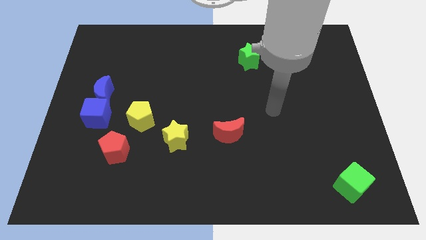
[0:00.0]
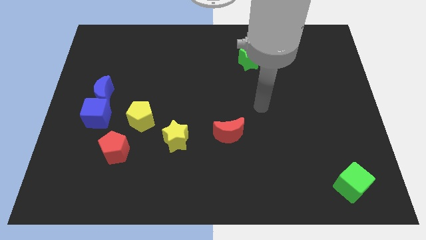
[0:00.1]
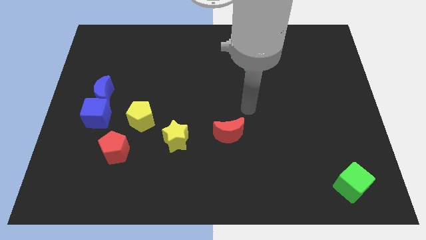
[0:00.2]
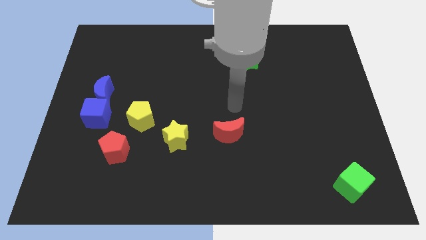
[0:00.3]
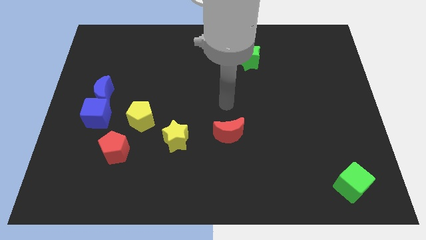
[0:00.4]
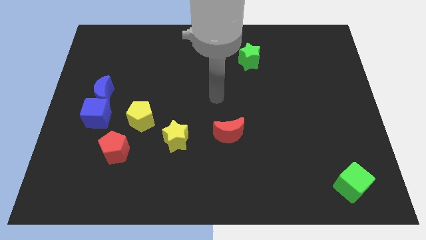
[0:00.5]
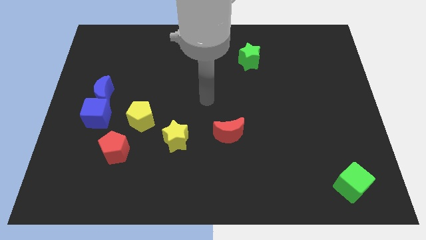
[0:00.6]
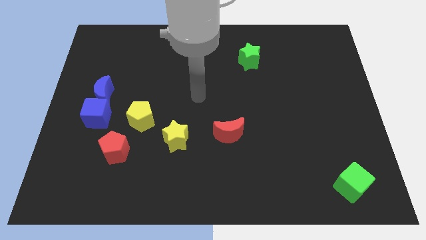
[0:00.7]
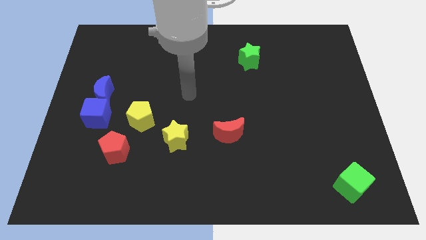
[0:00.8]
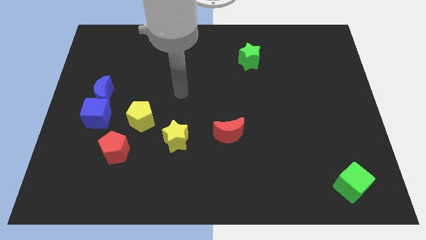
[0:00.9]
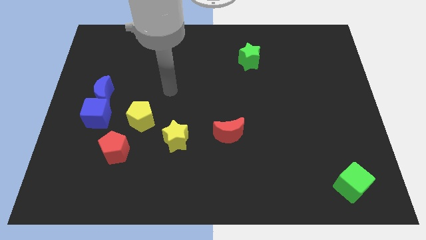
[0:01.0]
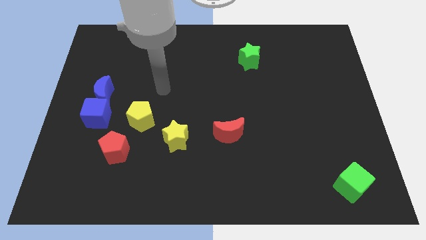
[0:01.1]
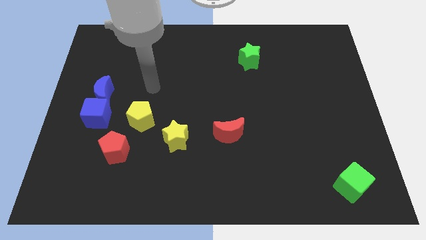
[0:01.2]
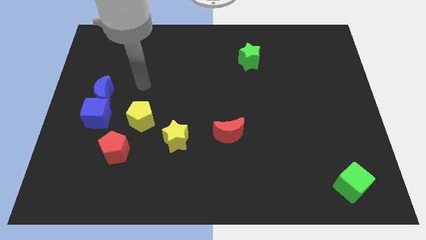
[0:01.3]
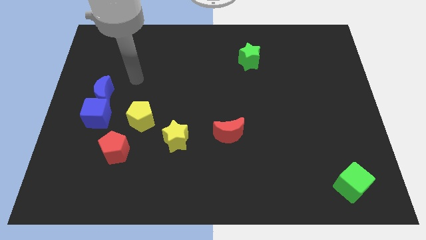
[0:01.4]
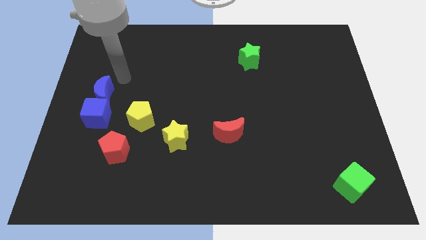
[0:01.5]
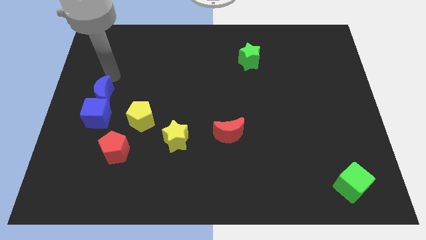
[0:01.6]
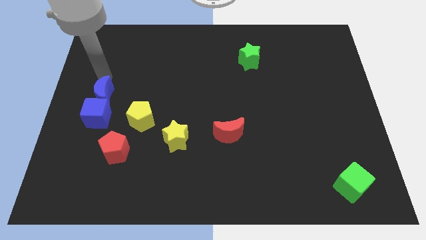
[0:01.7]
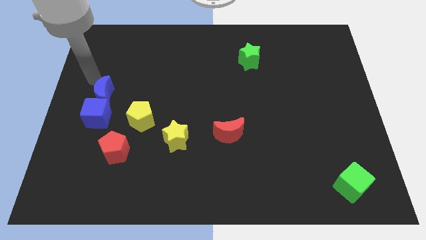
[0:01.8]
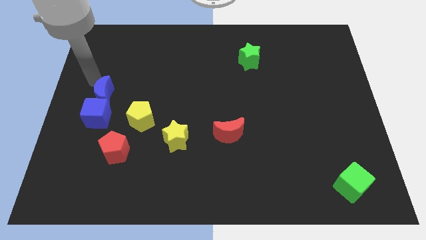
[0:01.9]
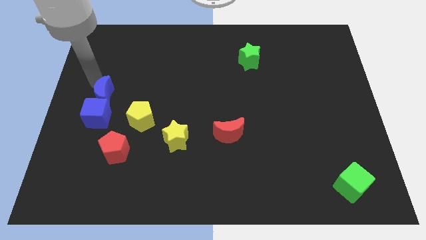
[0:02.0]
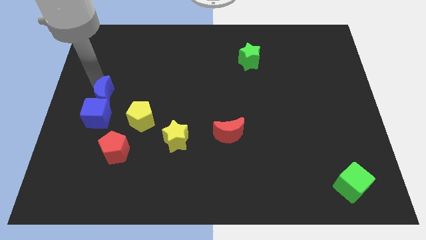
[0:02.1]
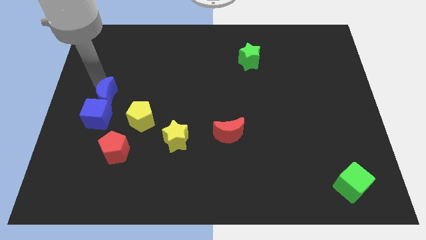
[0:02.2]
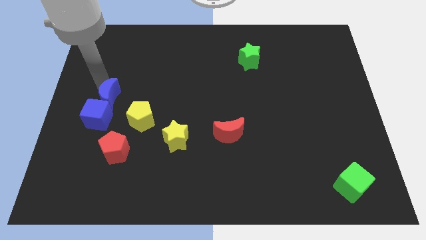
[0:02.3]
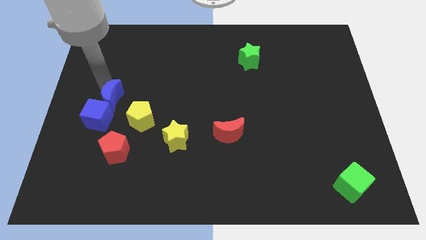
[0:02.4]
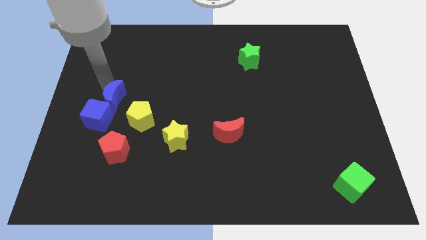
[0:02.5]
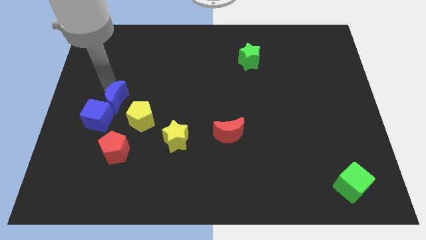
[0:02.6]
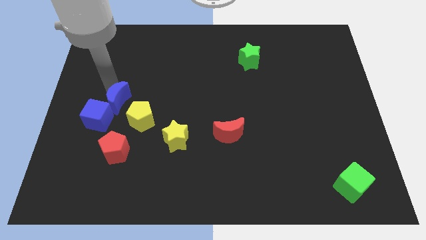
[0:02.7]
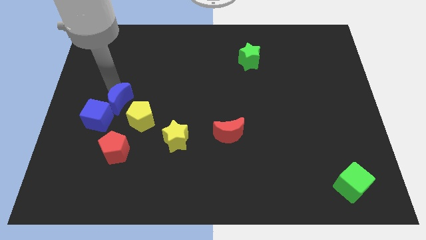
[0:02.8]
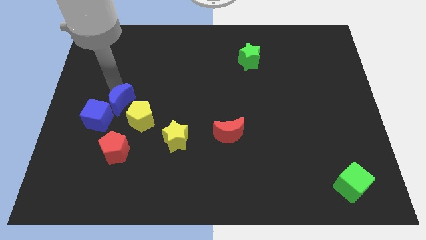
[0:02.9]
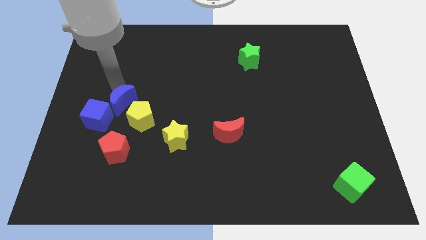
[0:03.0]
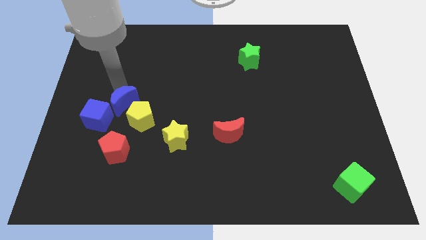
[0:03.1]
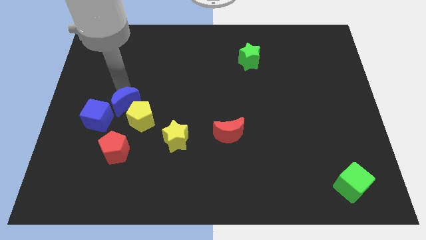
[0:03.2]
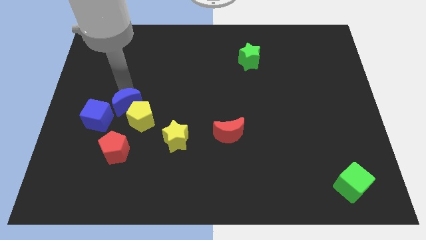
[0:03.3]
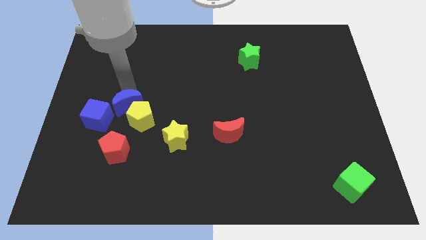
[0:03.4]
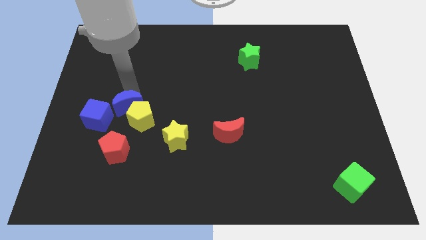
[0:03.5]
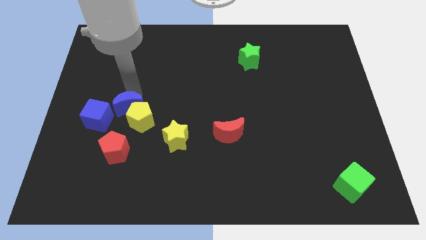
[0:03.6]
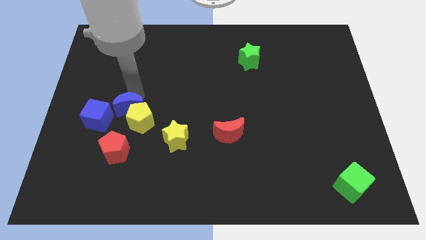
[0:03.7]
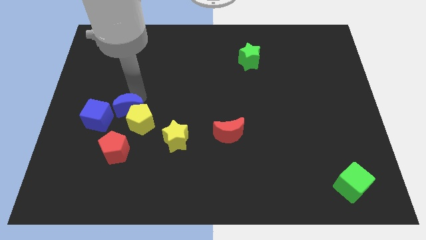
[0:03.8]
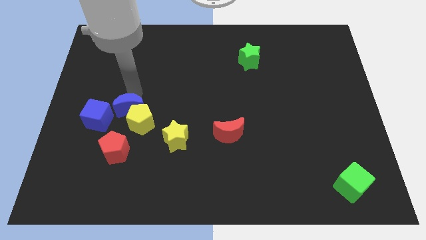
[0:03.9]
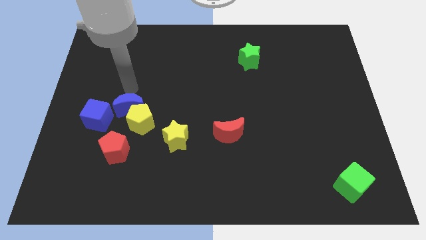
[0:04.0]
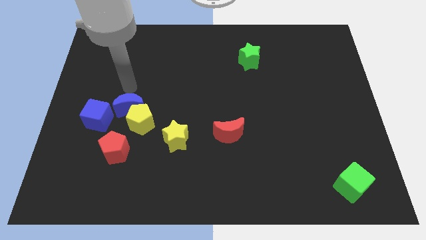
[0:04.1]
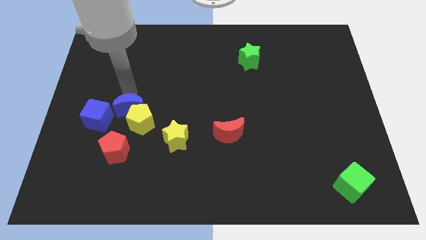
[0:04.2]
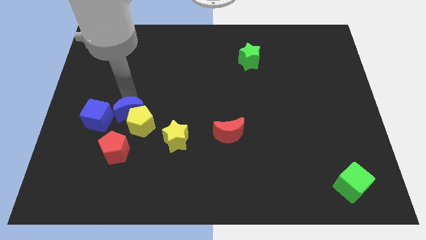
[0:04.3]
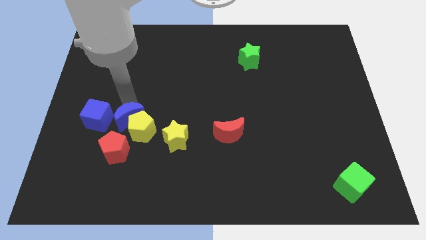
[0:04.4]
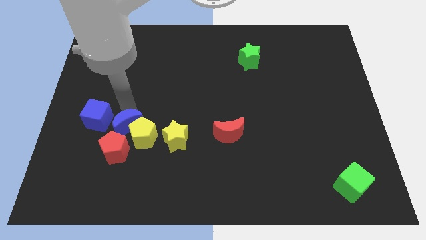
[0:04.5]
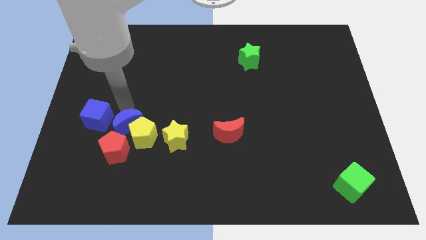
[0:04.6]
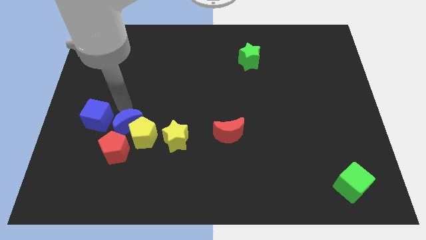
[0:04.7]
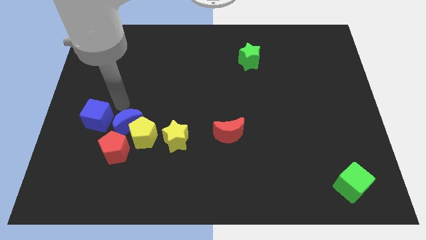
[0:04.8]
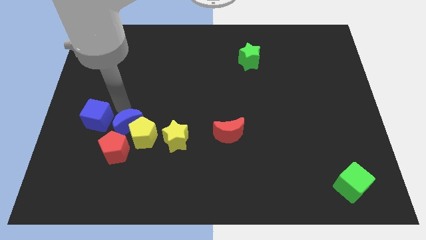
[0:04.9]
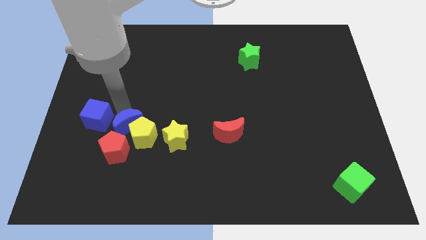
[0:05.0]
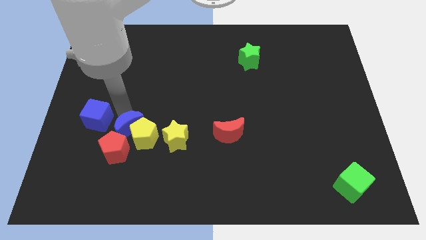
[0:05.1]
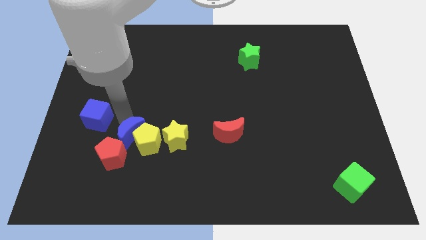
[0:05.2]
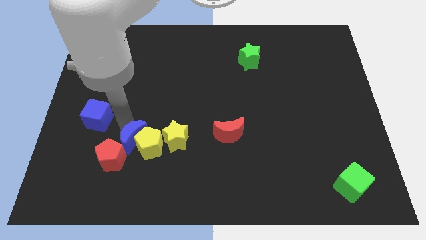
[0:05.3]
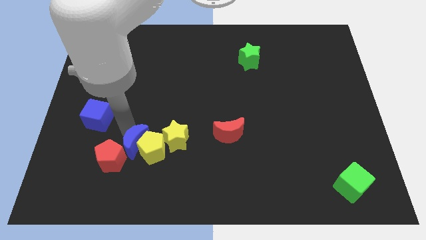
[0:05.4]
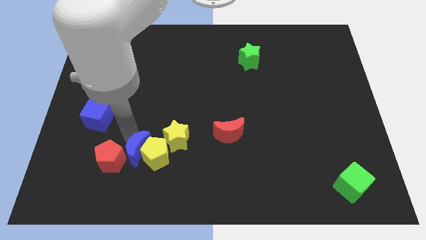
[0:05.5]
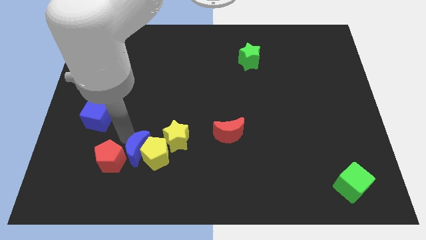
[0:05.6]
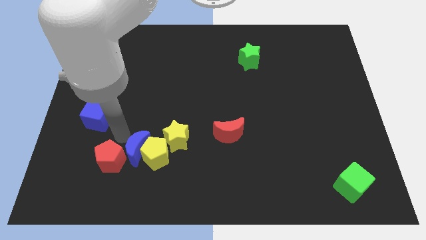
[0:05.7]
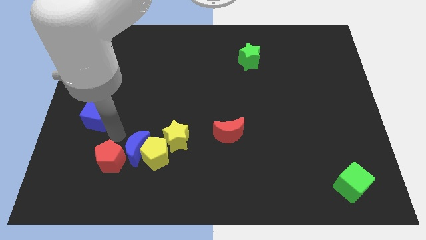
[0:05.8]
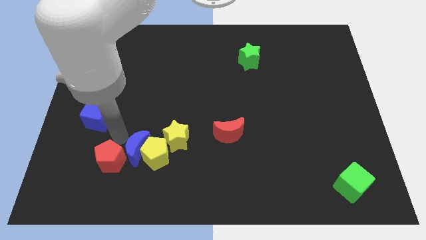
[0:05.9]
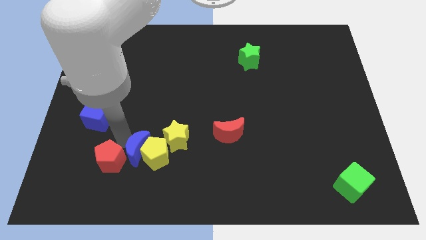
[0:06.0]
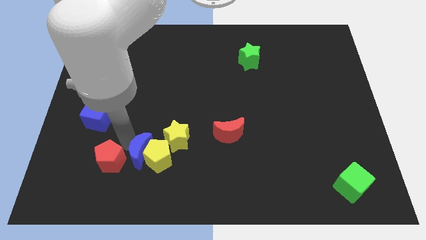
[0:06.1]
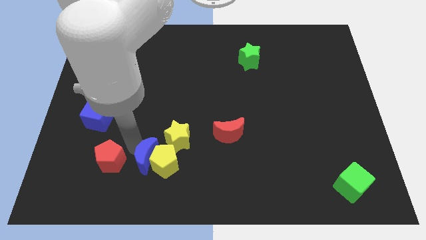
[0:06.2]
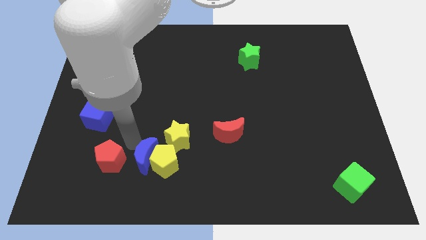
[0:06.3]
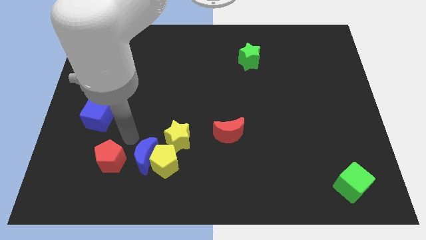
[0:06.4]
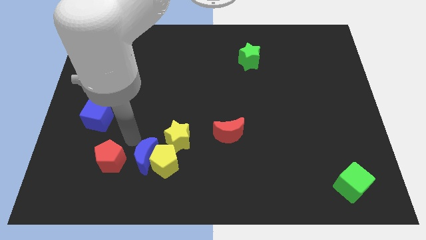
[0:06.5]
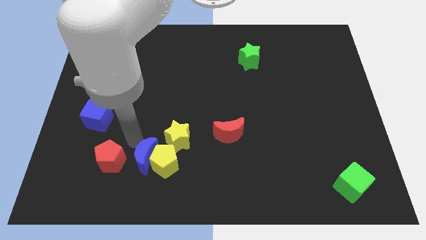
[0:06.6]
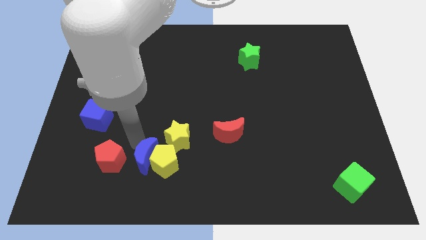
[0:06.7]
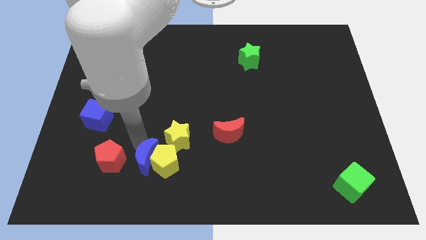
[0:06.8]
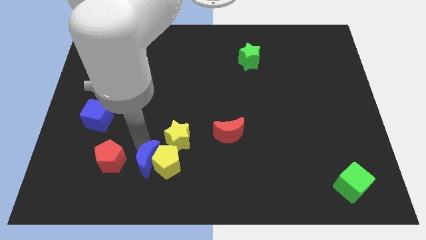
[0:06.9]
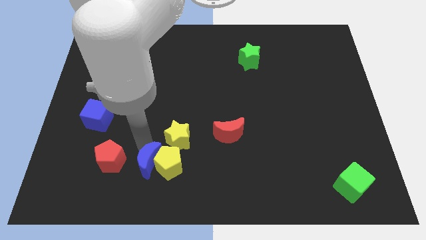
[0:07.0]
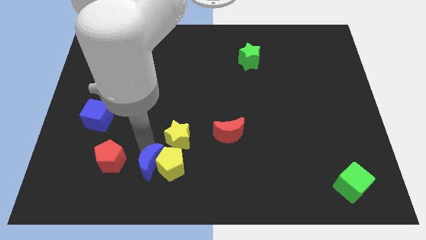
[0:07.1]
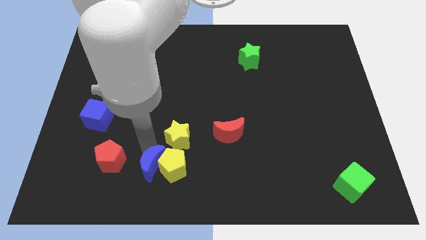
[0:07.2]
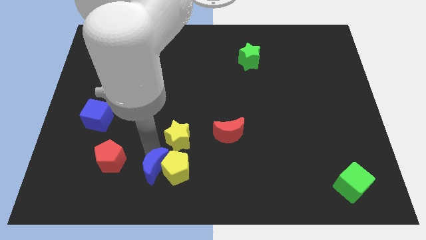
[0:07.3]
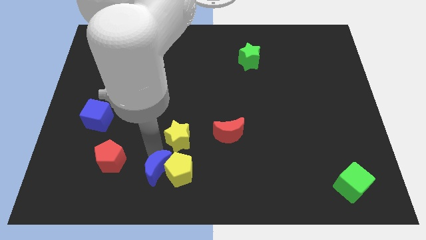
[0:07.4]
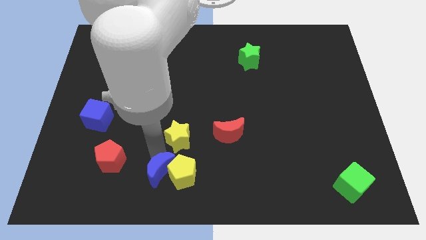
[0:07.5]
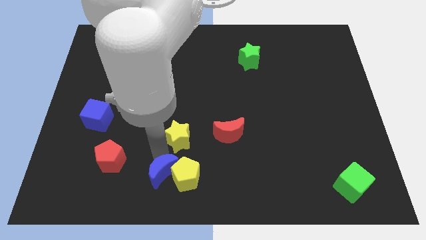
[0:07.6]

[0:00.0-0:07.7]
move the blue moon to the bottom
